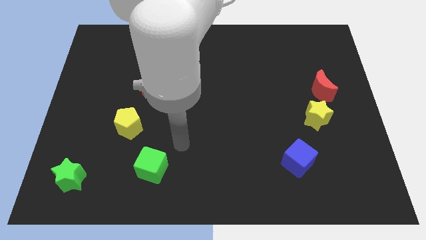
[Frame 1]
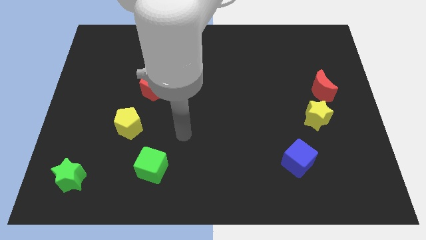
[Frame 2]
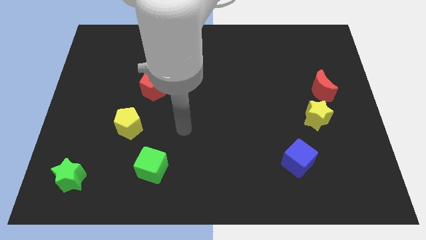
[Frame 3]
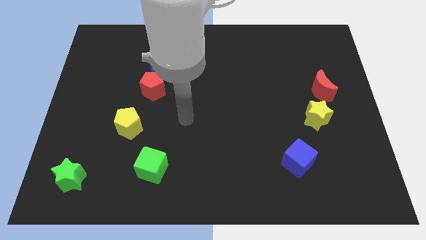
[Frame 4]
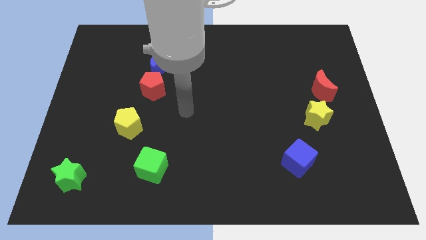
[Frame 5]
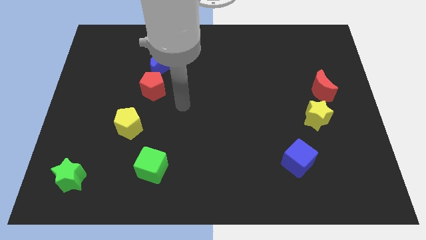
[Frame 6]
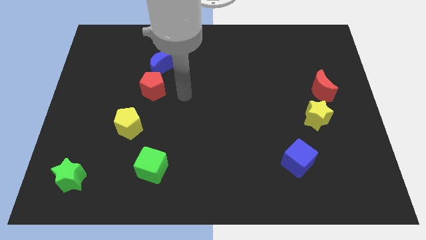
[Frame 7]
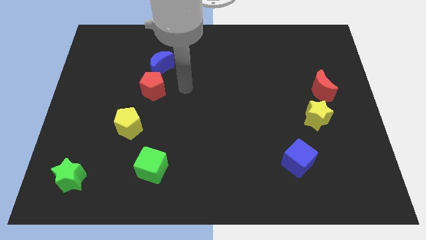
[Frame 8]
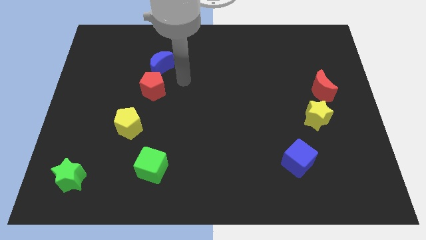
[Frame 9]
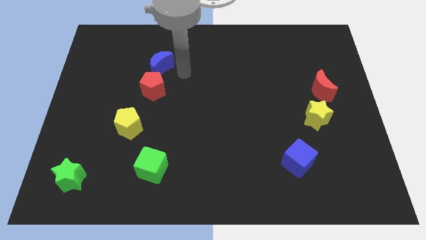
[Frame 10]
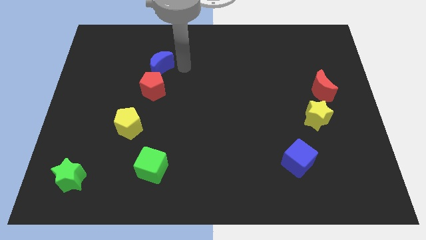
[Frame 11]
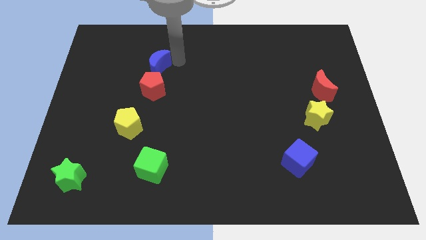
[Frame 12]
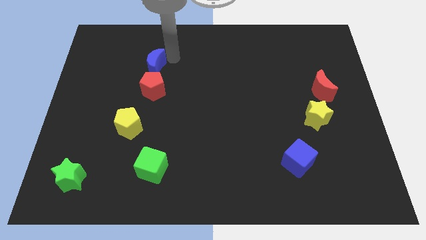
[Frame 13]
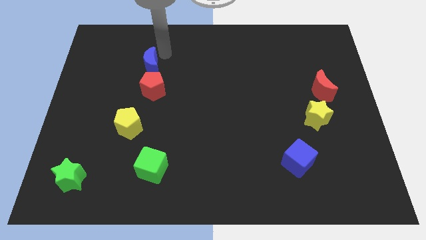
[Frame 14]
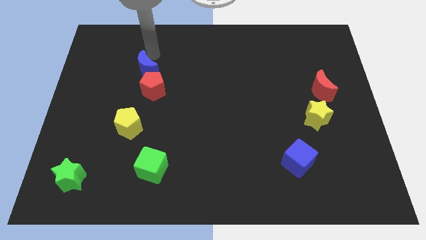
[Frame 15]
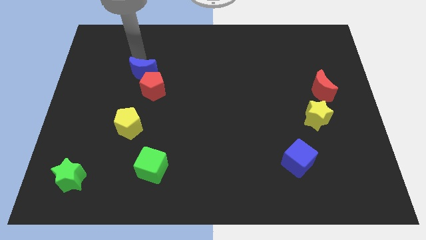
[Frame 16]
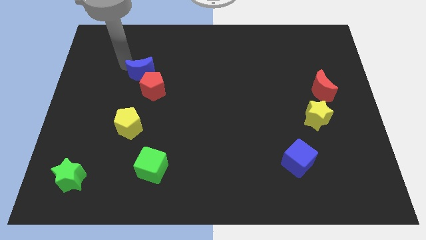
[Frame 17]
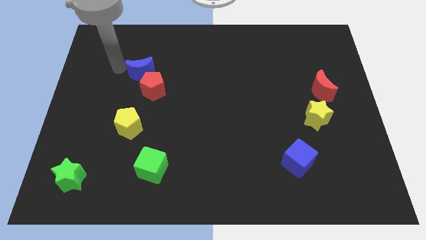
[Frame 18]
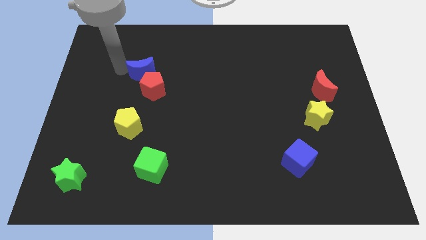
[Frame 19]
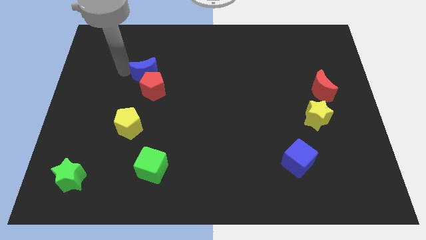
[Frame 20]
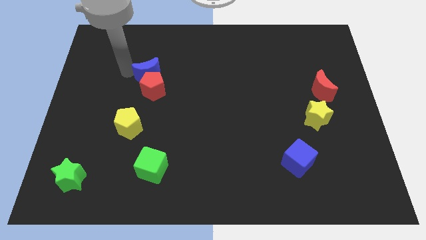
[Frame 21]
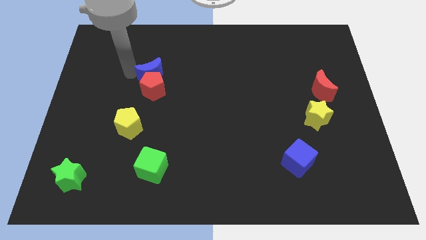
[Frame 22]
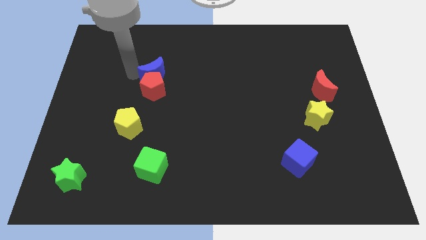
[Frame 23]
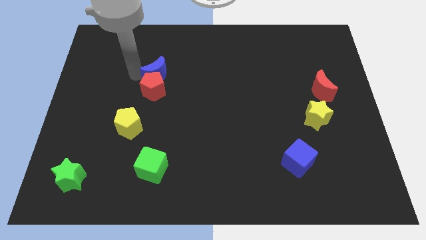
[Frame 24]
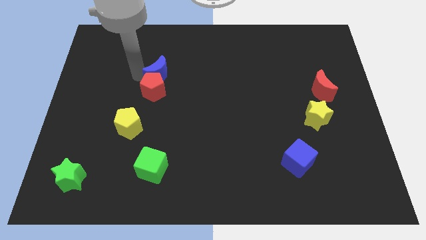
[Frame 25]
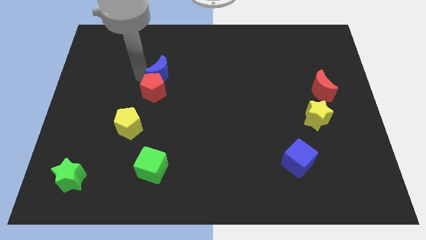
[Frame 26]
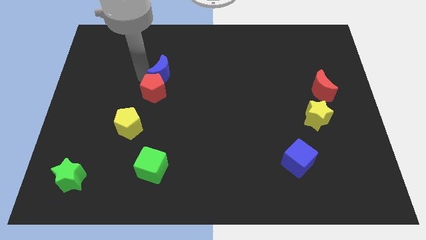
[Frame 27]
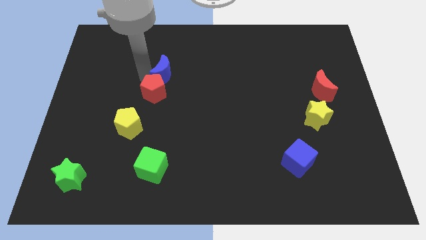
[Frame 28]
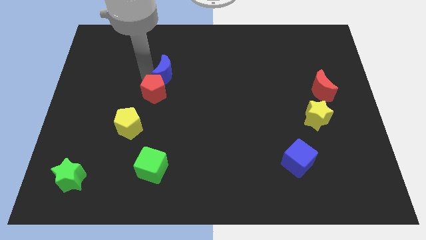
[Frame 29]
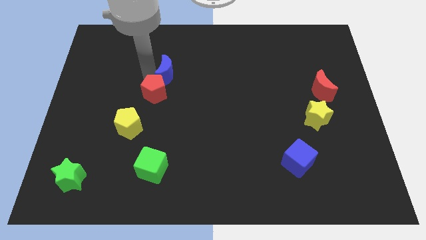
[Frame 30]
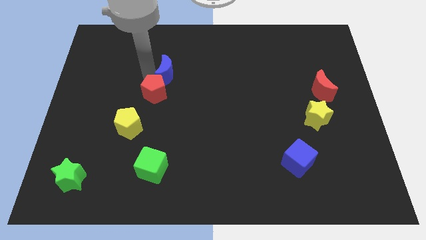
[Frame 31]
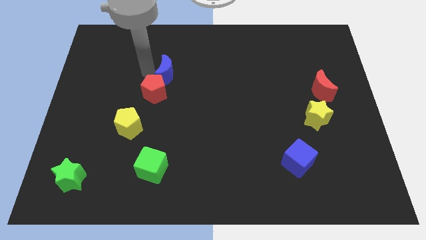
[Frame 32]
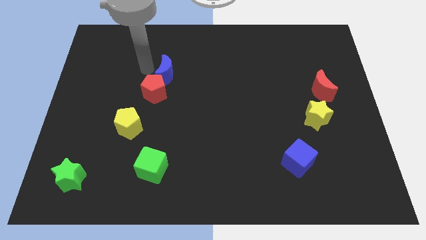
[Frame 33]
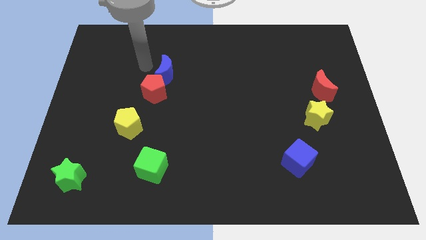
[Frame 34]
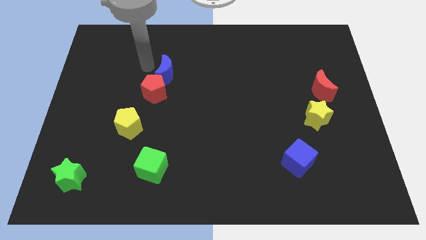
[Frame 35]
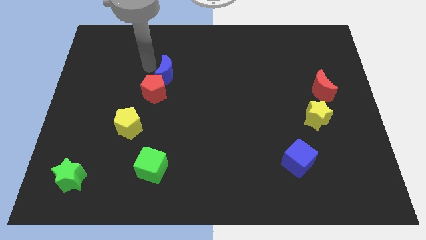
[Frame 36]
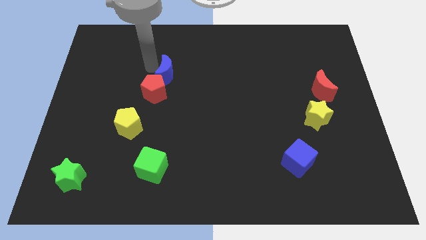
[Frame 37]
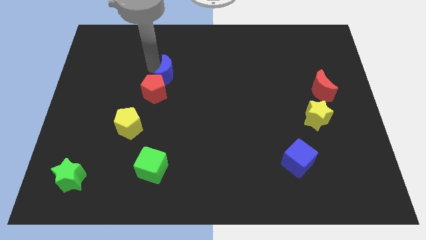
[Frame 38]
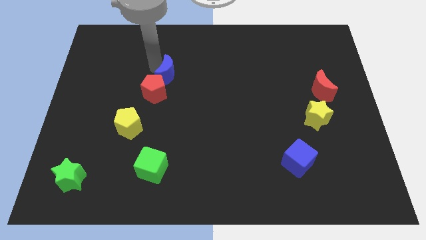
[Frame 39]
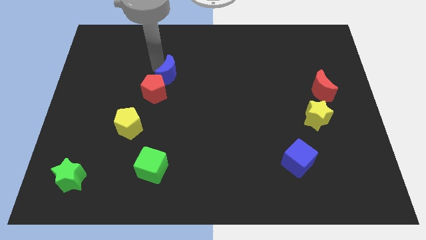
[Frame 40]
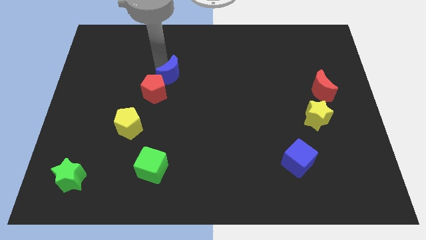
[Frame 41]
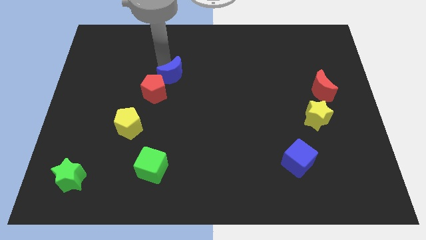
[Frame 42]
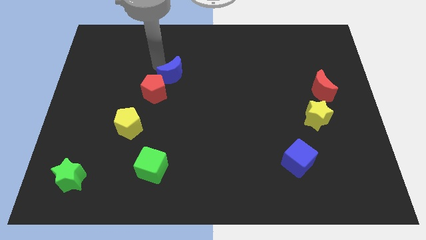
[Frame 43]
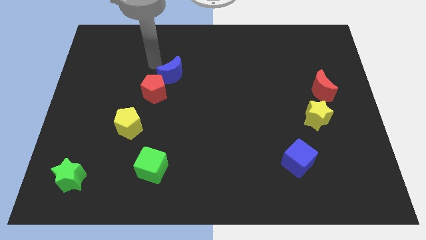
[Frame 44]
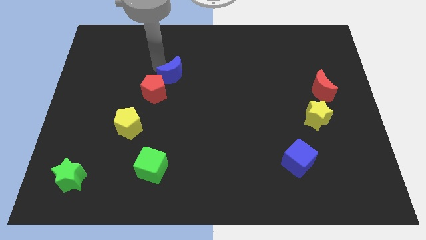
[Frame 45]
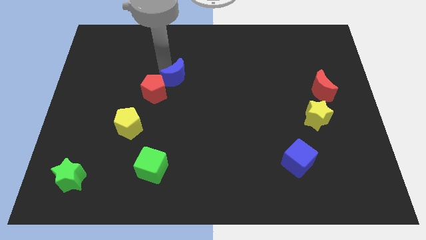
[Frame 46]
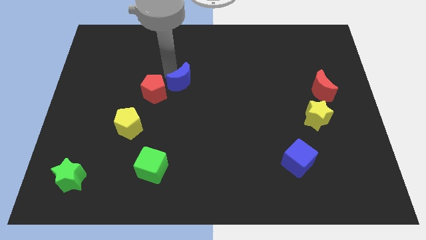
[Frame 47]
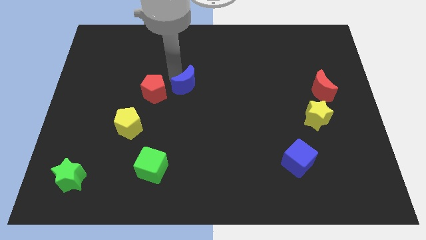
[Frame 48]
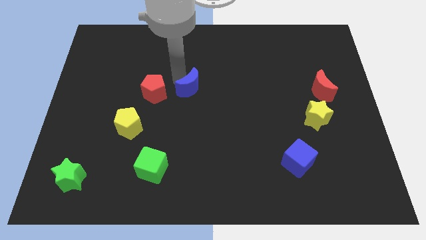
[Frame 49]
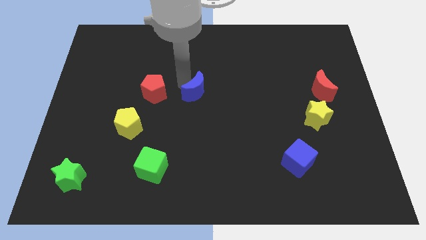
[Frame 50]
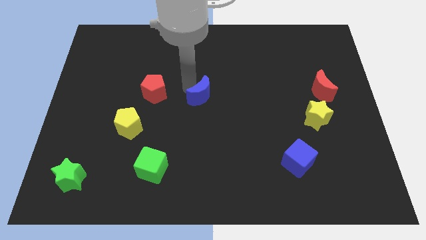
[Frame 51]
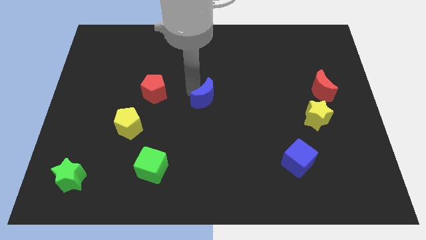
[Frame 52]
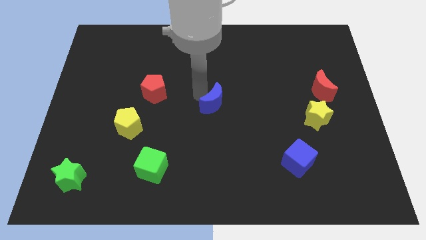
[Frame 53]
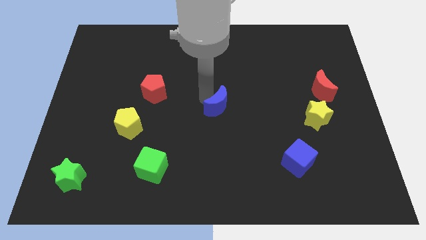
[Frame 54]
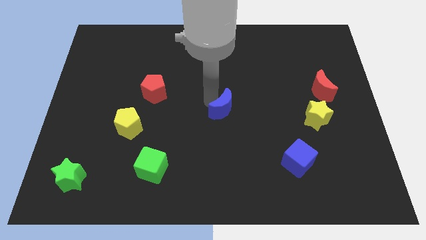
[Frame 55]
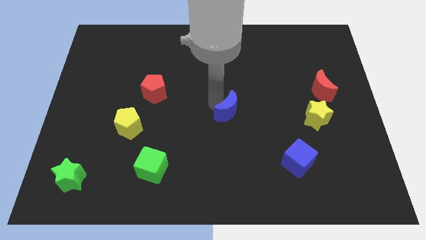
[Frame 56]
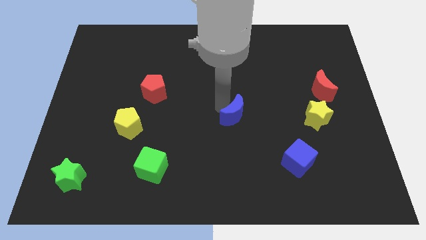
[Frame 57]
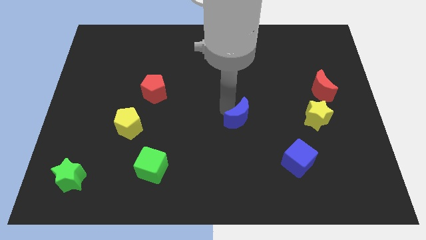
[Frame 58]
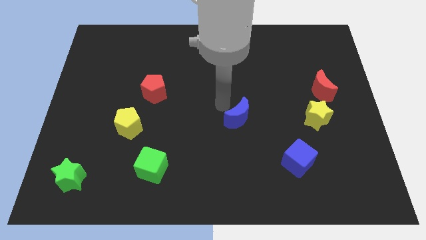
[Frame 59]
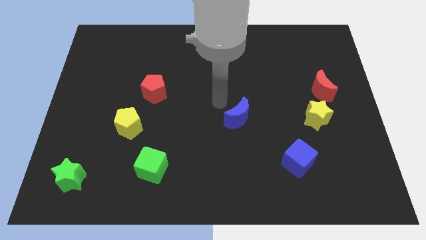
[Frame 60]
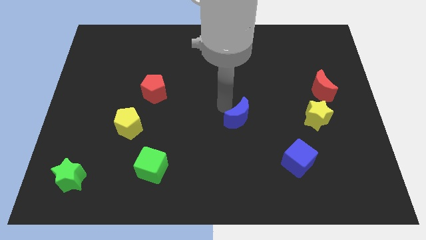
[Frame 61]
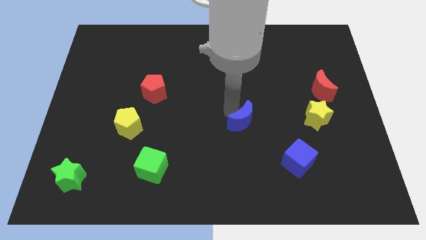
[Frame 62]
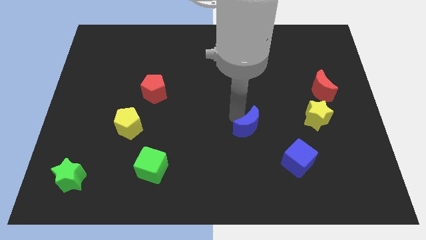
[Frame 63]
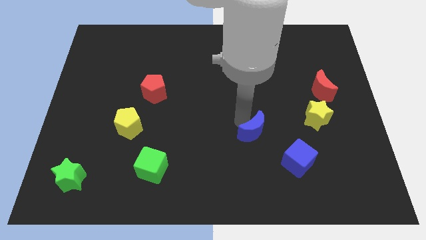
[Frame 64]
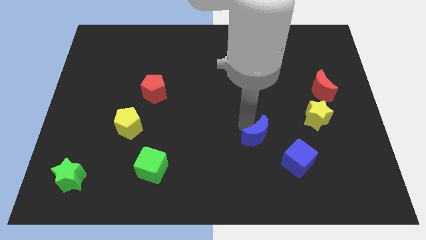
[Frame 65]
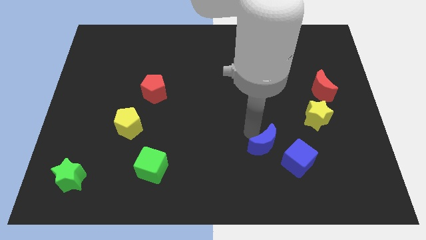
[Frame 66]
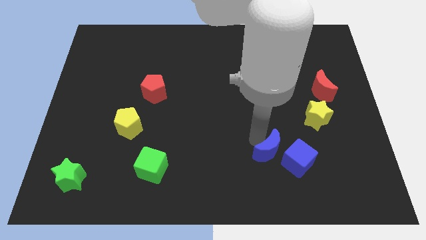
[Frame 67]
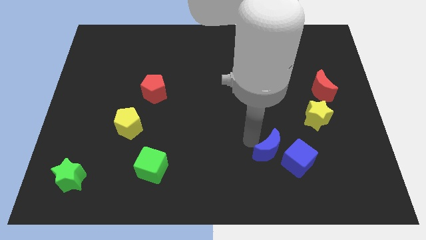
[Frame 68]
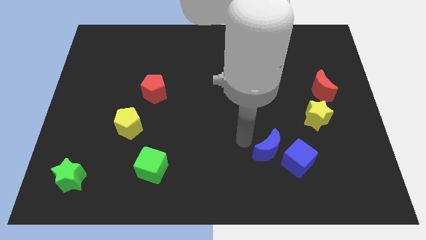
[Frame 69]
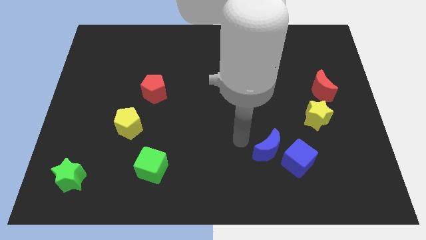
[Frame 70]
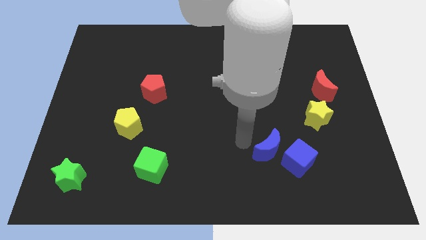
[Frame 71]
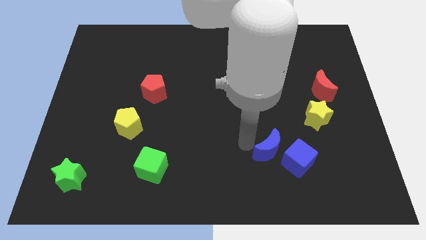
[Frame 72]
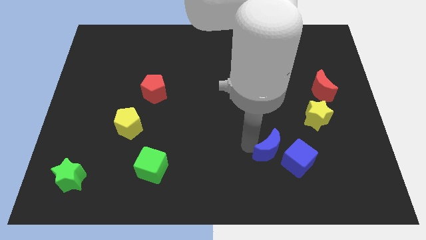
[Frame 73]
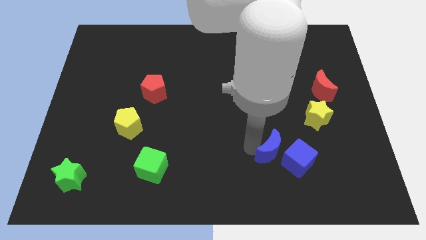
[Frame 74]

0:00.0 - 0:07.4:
put the blue moon towards the blue cube
